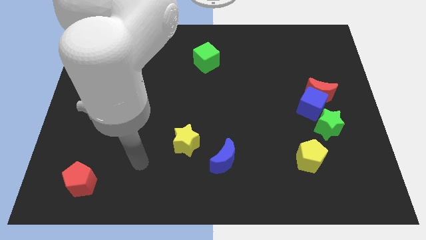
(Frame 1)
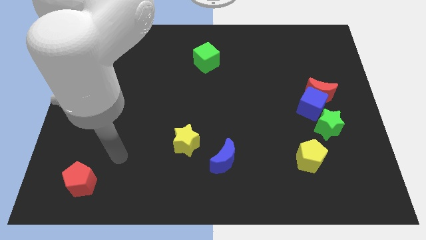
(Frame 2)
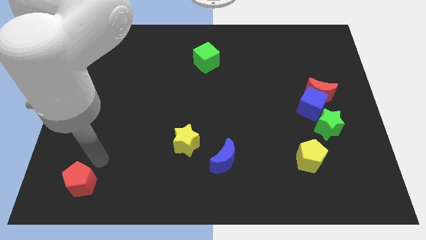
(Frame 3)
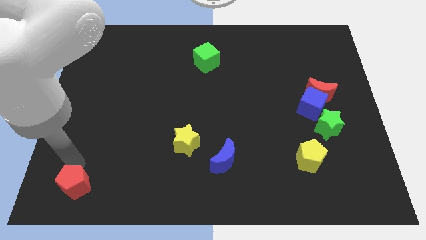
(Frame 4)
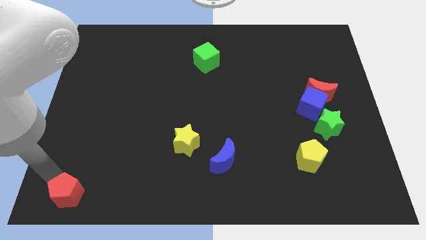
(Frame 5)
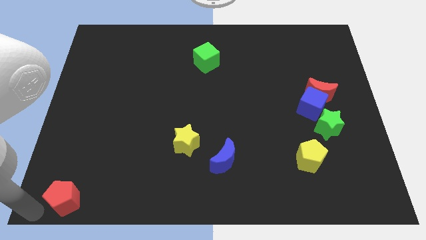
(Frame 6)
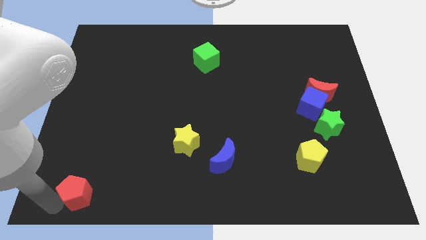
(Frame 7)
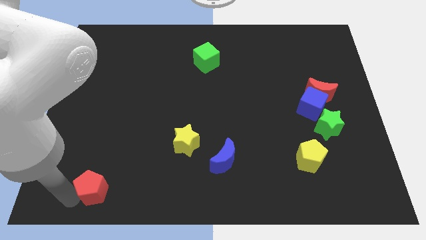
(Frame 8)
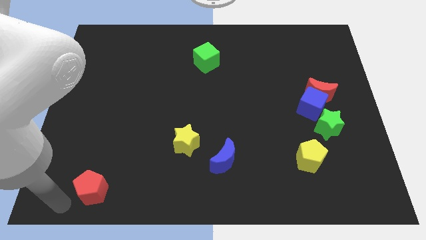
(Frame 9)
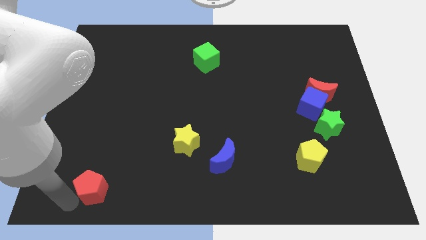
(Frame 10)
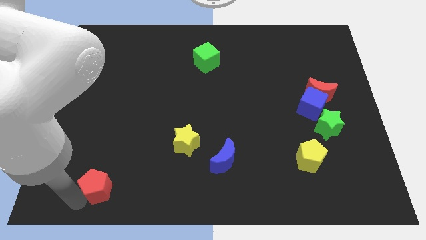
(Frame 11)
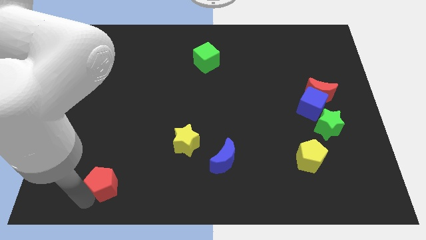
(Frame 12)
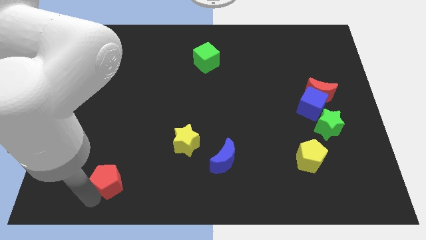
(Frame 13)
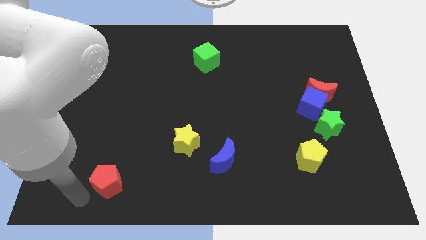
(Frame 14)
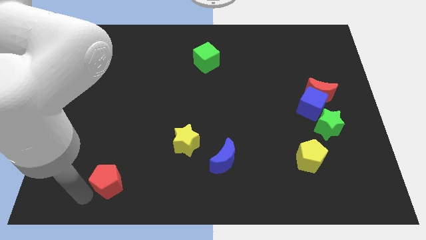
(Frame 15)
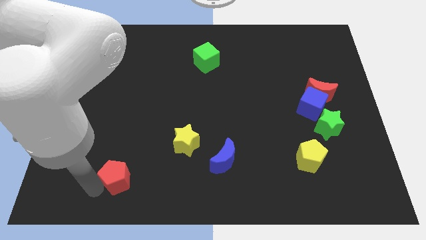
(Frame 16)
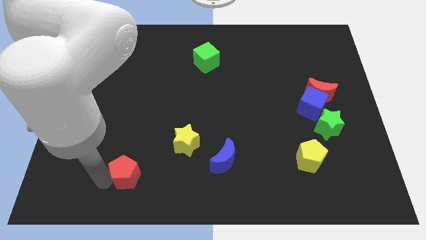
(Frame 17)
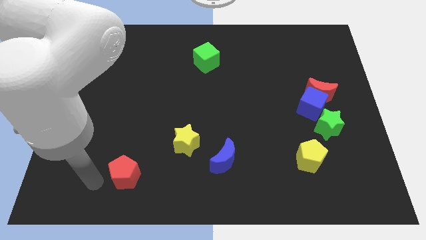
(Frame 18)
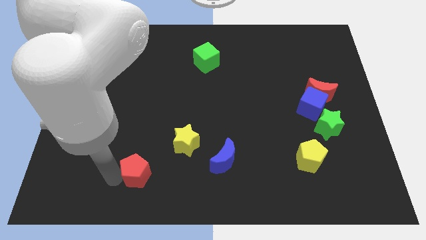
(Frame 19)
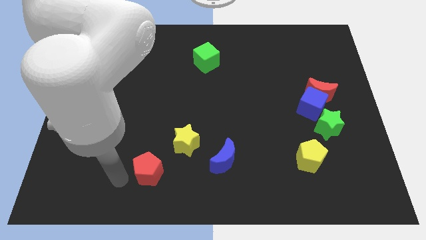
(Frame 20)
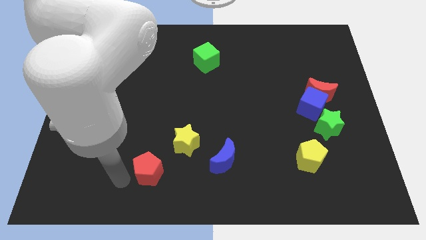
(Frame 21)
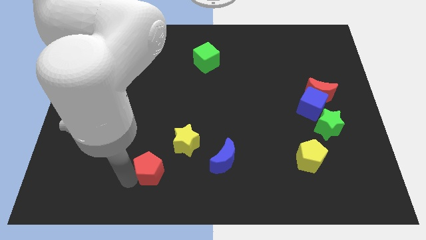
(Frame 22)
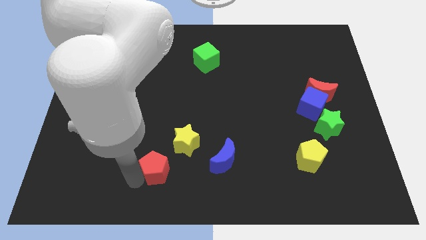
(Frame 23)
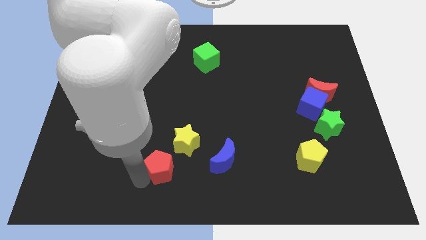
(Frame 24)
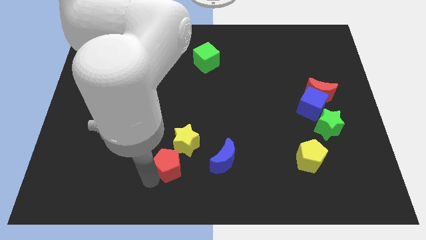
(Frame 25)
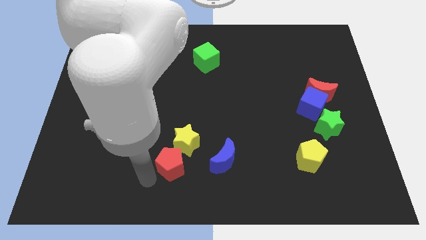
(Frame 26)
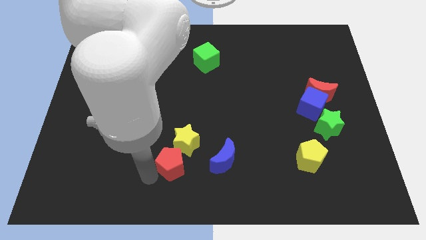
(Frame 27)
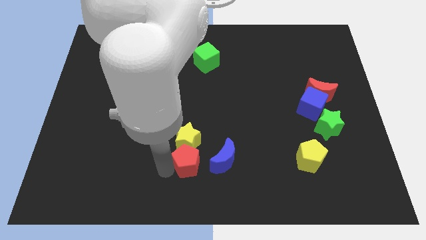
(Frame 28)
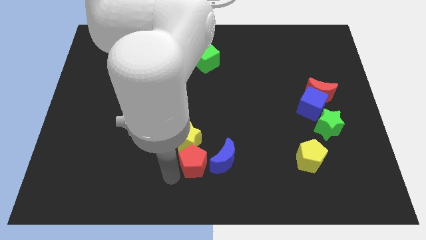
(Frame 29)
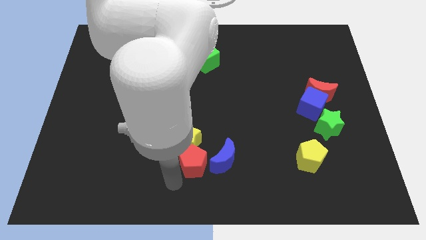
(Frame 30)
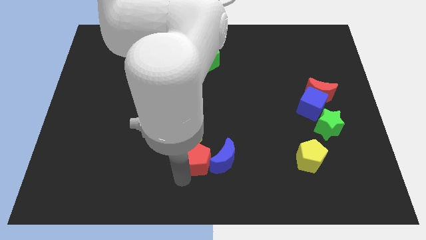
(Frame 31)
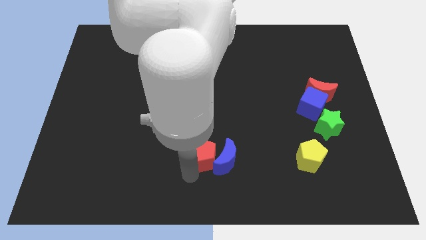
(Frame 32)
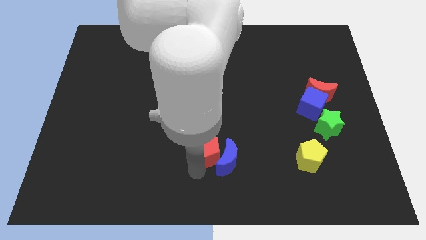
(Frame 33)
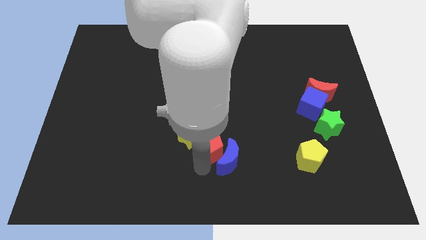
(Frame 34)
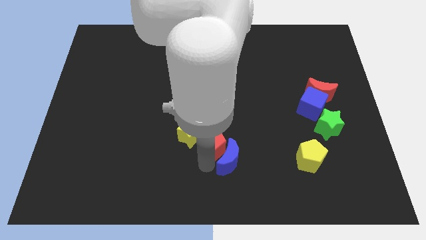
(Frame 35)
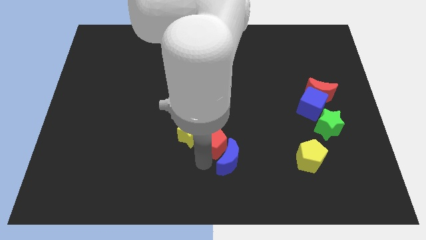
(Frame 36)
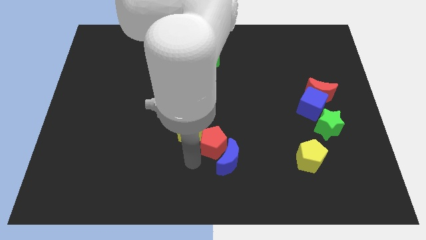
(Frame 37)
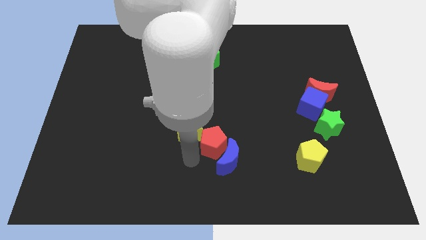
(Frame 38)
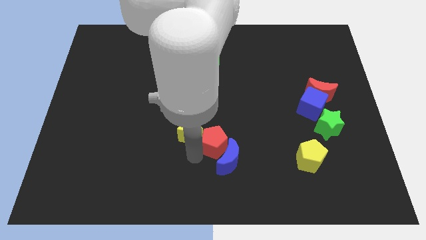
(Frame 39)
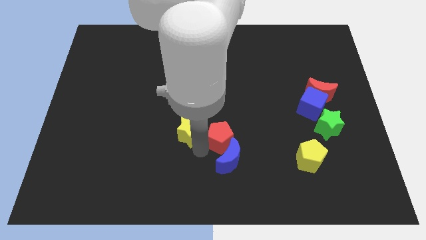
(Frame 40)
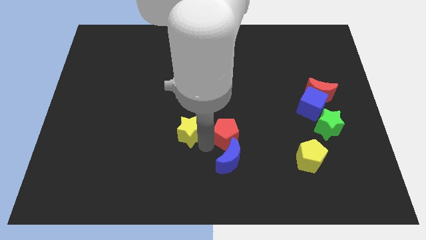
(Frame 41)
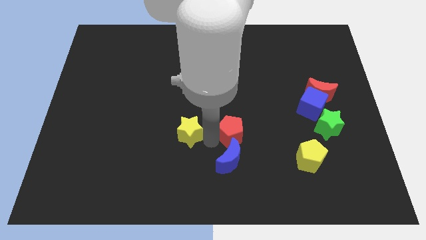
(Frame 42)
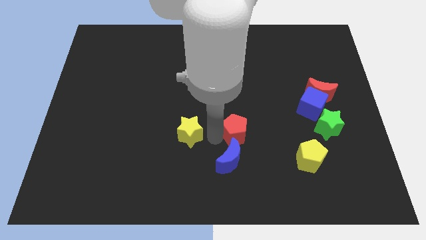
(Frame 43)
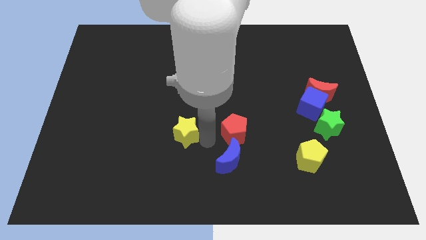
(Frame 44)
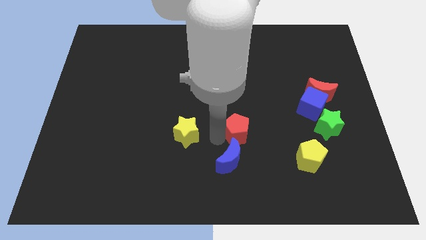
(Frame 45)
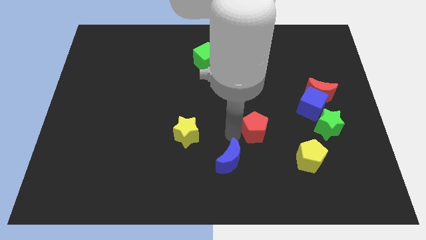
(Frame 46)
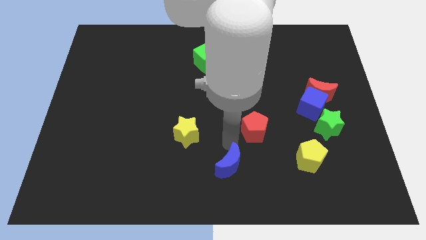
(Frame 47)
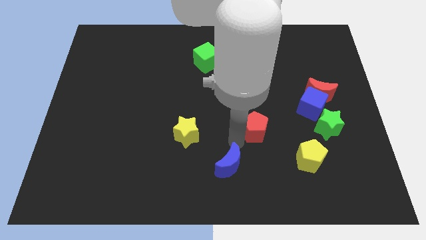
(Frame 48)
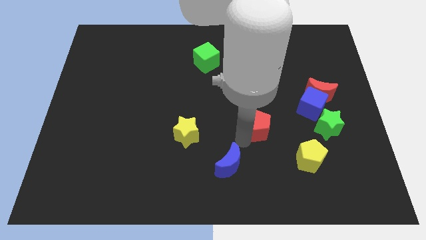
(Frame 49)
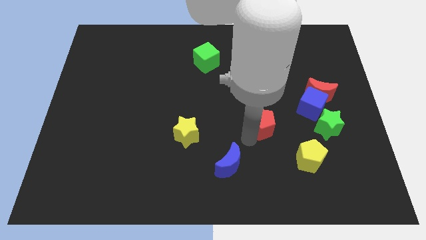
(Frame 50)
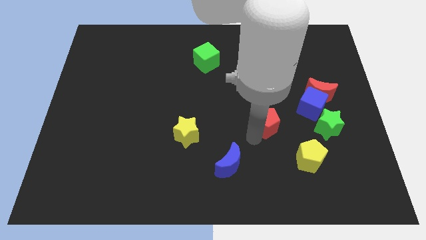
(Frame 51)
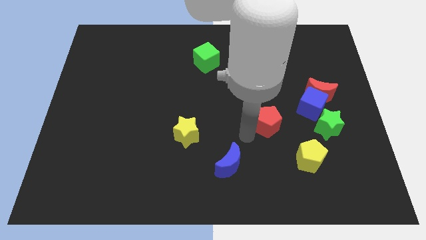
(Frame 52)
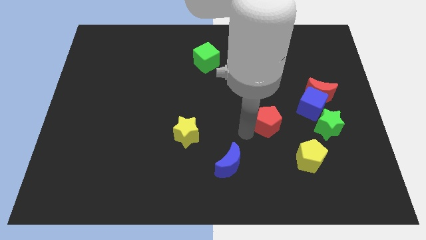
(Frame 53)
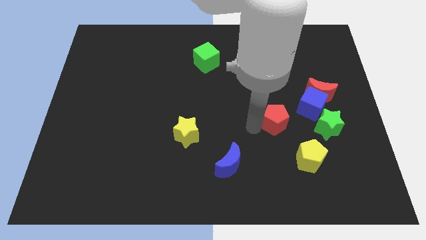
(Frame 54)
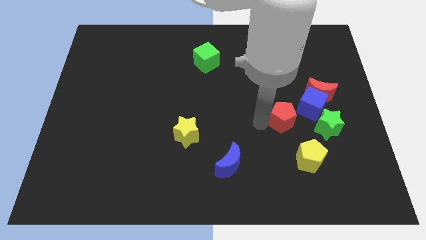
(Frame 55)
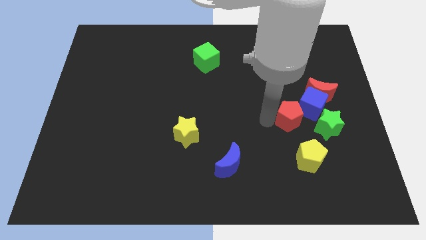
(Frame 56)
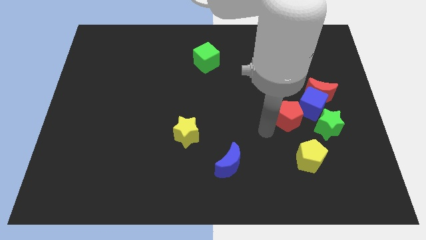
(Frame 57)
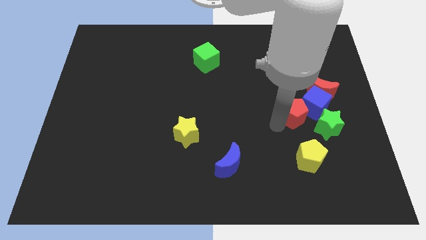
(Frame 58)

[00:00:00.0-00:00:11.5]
slide the red pentagon towards the blue cube

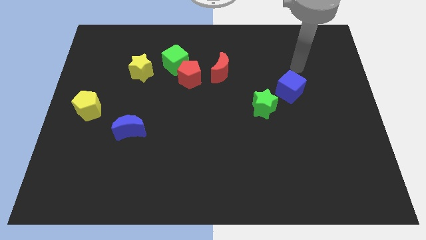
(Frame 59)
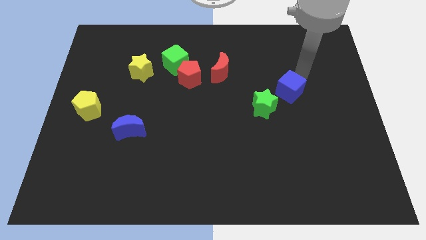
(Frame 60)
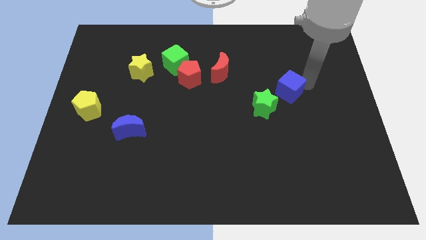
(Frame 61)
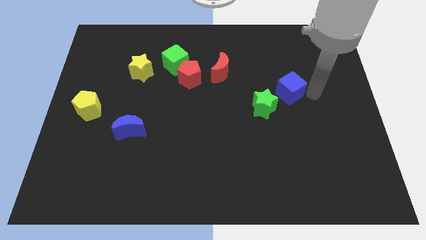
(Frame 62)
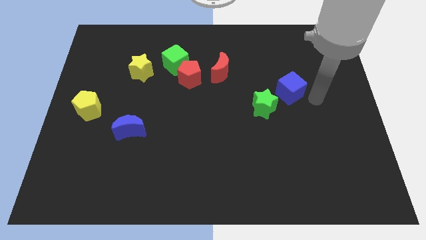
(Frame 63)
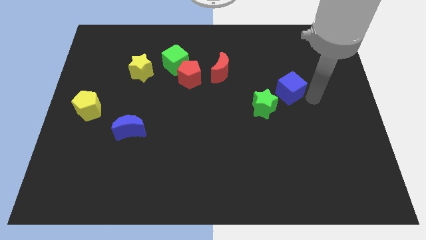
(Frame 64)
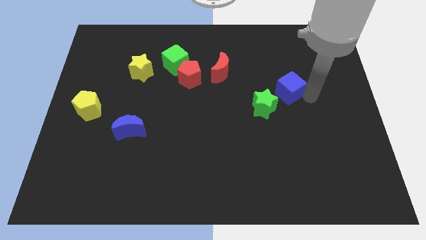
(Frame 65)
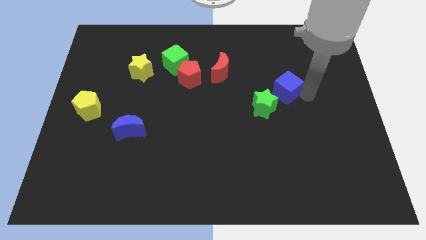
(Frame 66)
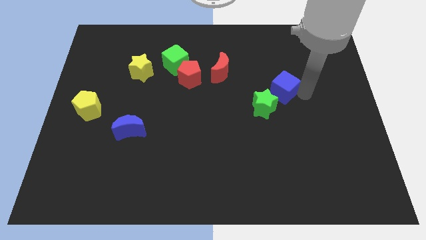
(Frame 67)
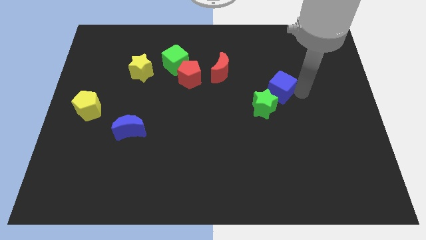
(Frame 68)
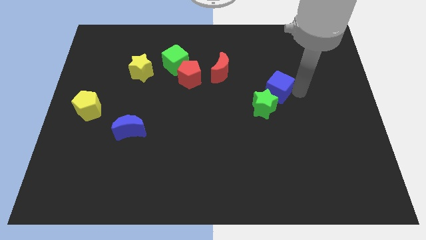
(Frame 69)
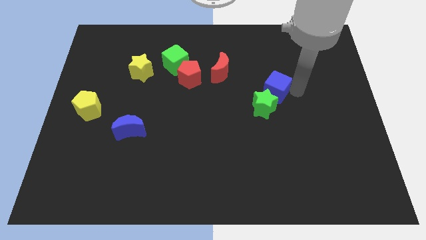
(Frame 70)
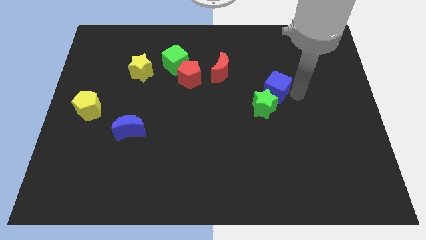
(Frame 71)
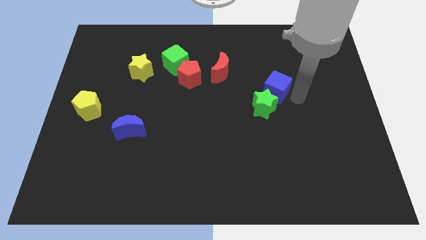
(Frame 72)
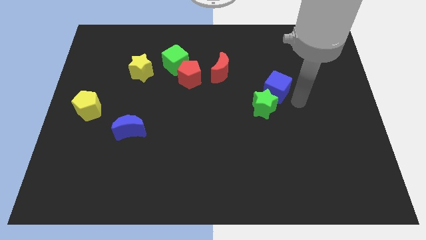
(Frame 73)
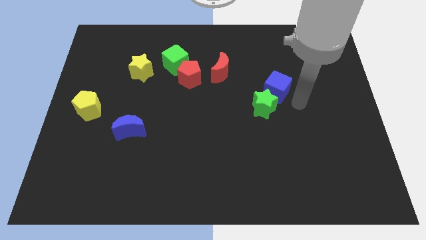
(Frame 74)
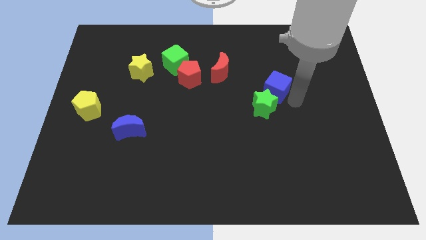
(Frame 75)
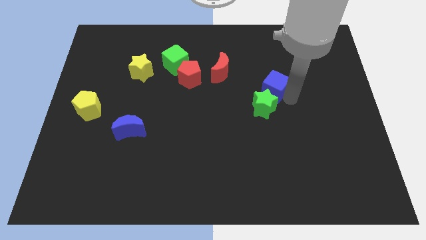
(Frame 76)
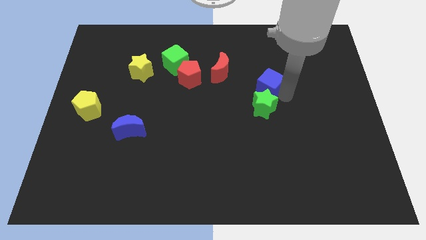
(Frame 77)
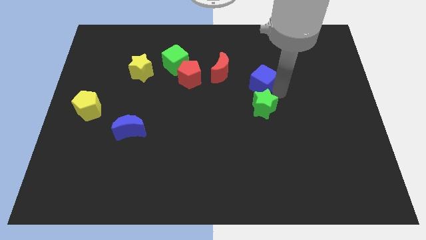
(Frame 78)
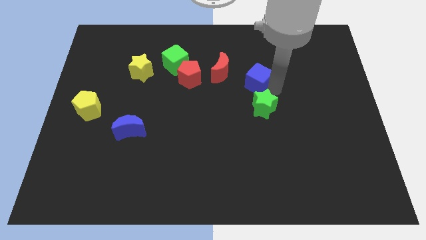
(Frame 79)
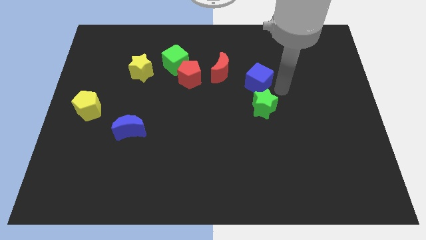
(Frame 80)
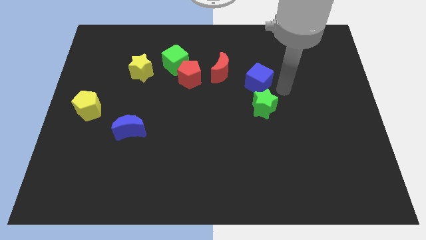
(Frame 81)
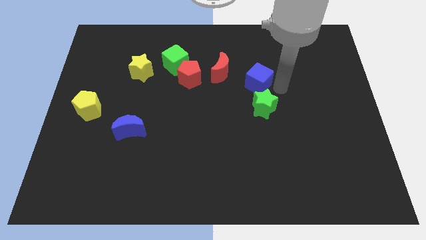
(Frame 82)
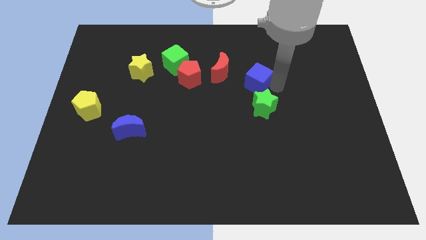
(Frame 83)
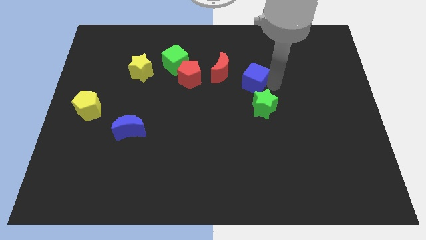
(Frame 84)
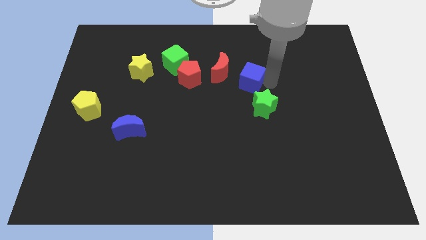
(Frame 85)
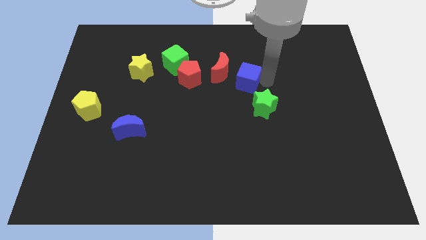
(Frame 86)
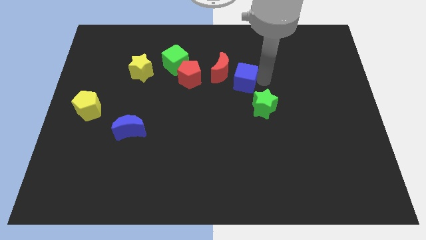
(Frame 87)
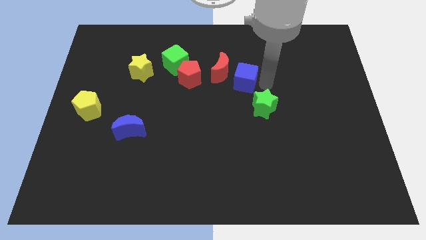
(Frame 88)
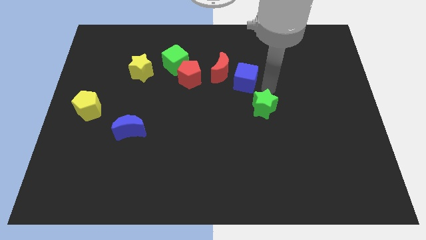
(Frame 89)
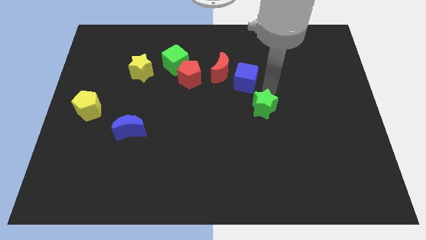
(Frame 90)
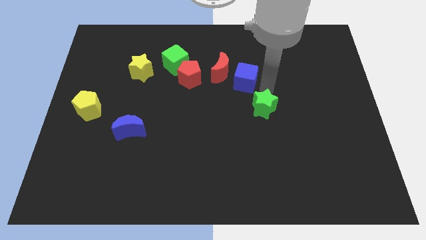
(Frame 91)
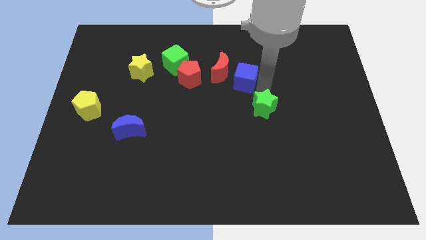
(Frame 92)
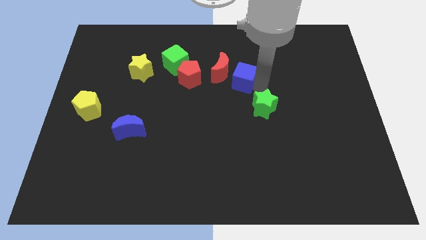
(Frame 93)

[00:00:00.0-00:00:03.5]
slide the blue cube towards the red moon
